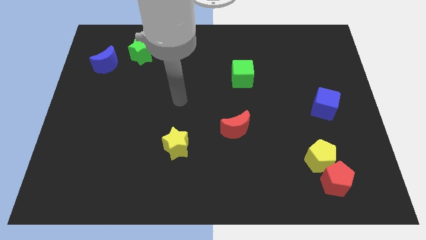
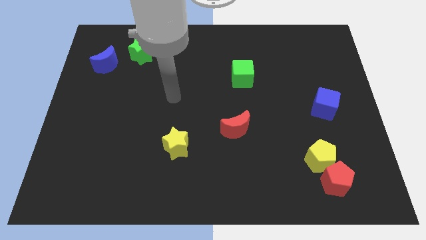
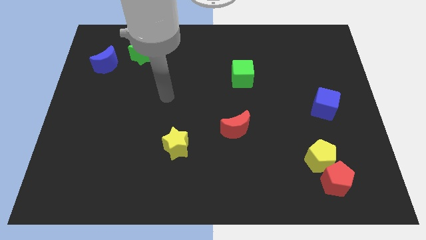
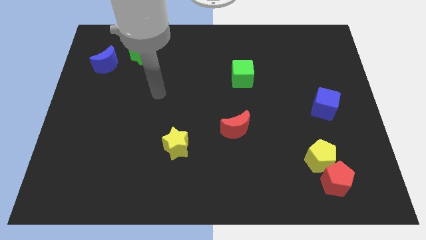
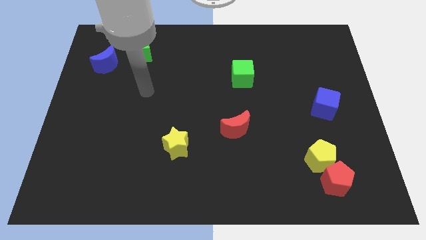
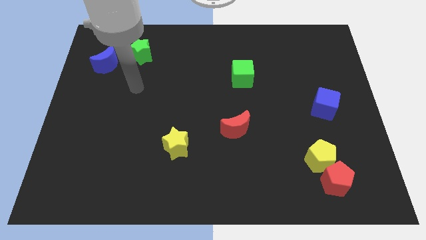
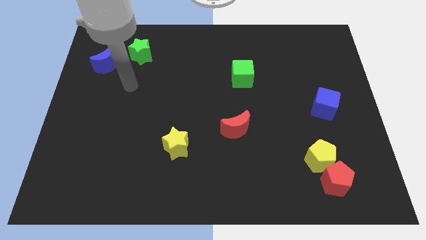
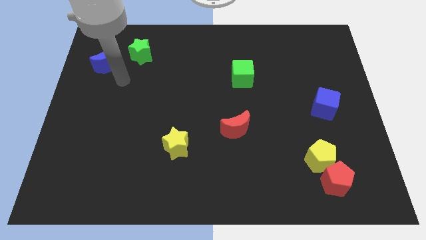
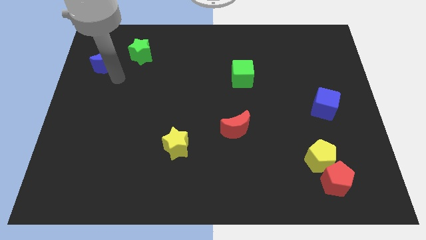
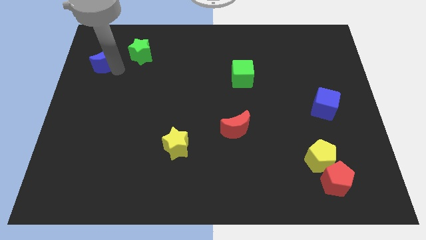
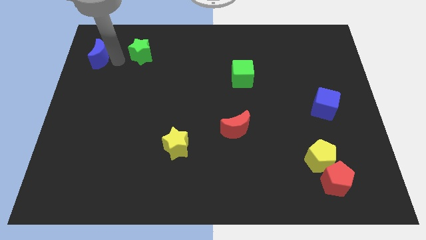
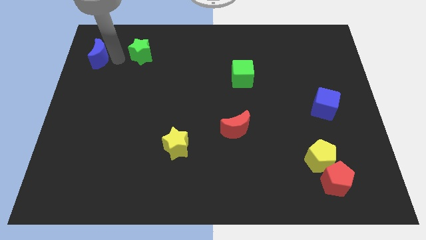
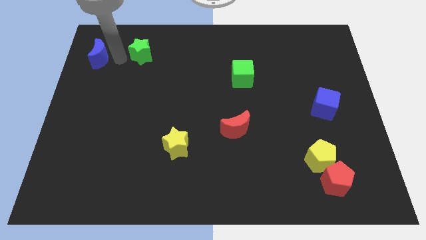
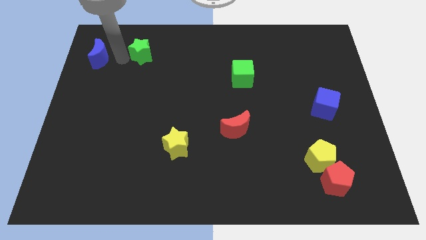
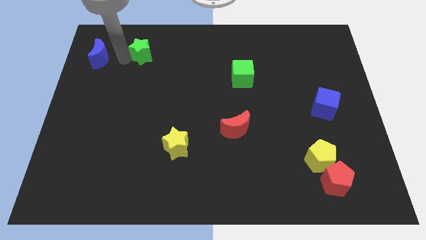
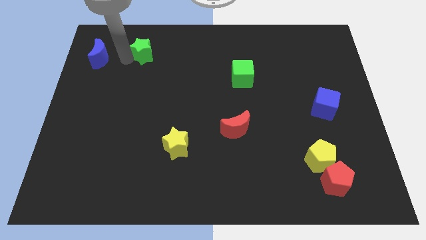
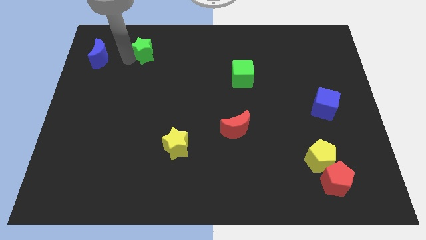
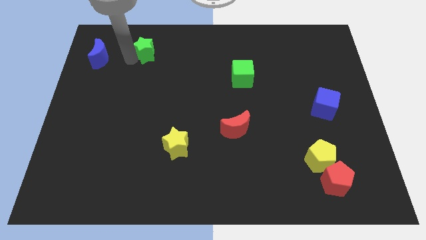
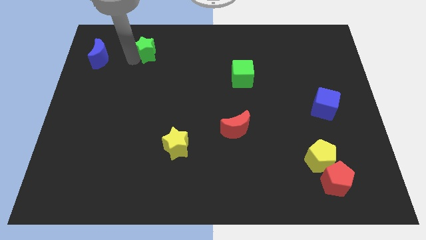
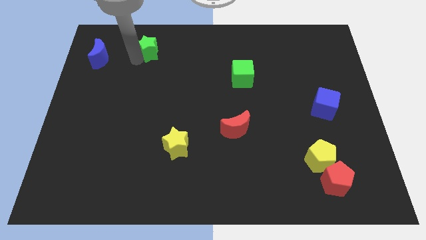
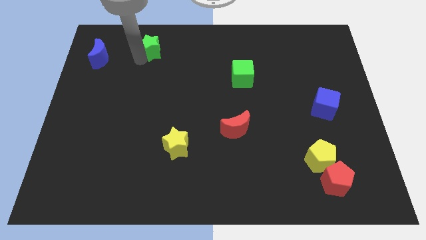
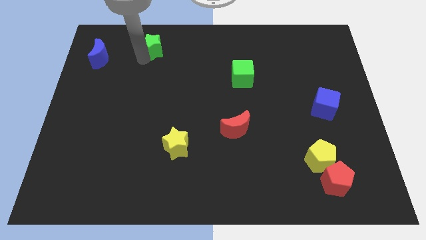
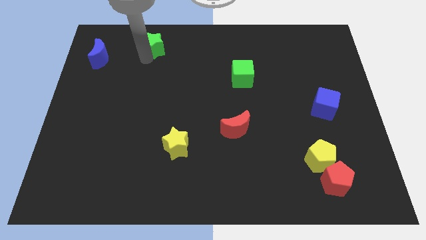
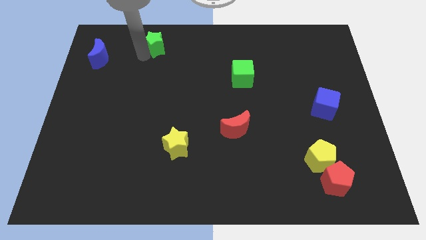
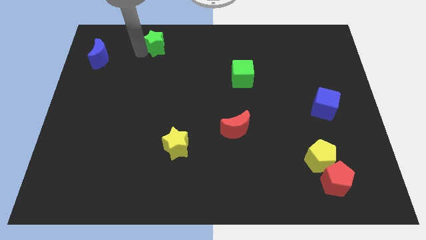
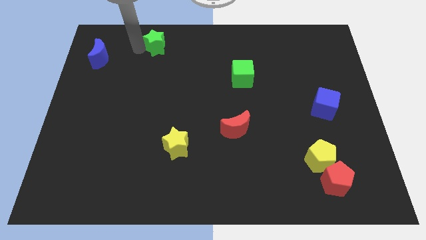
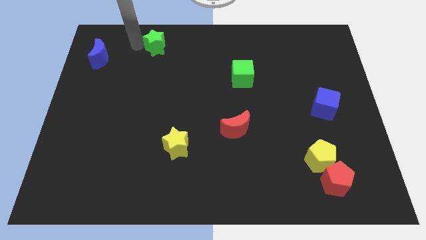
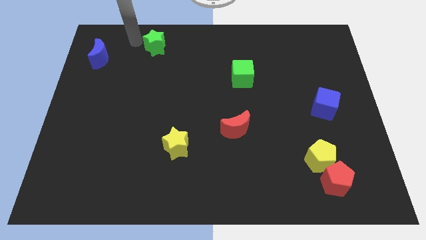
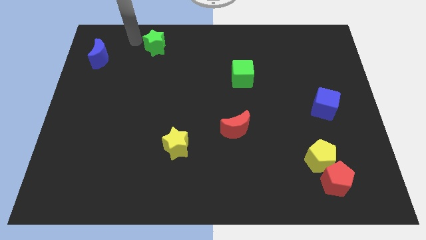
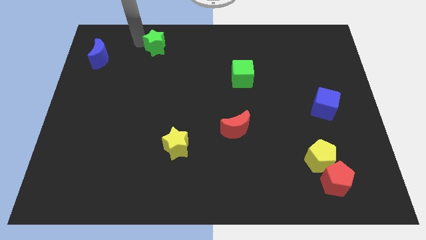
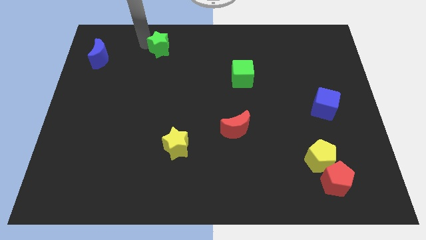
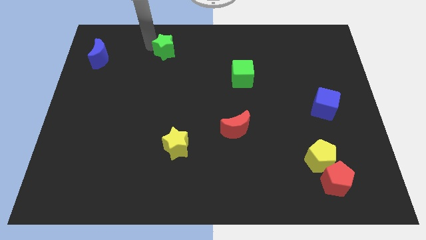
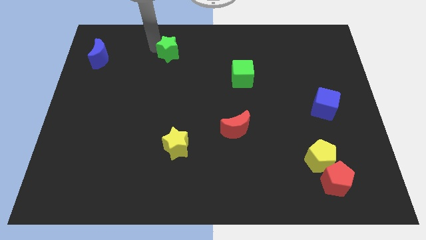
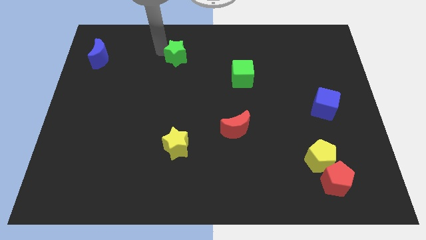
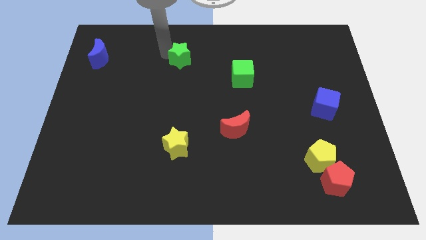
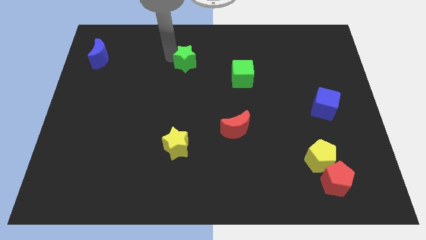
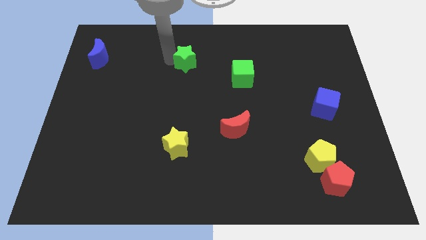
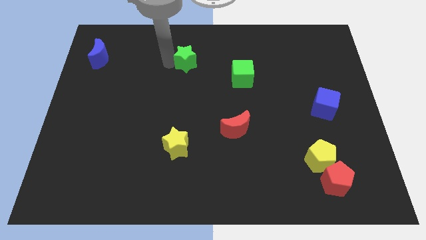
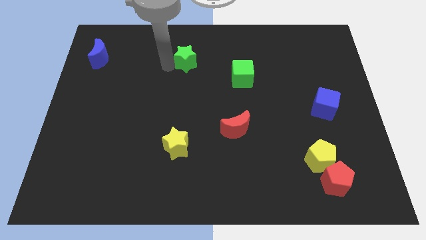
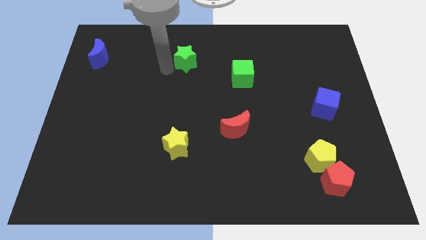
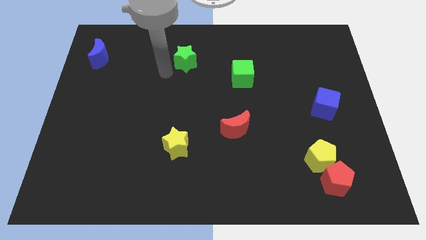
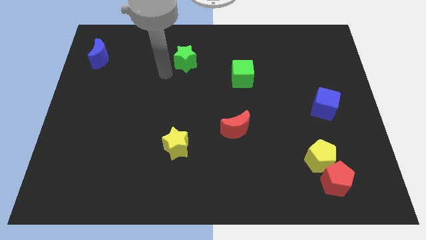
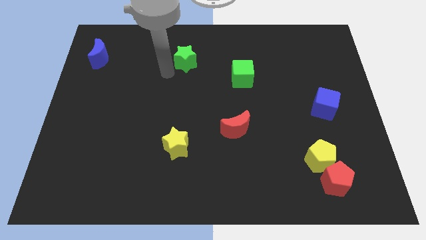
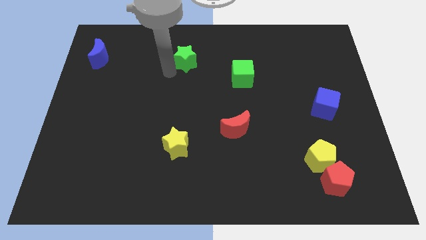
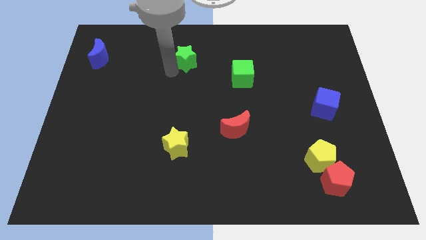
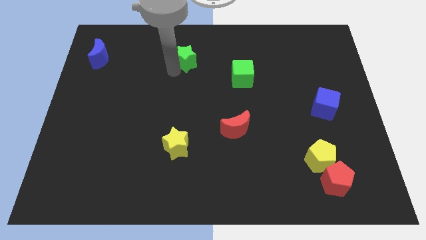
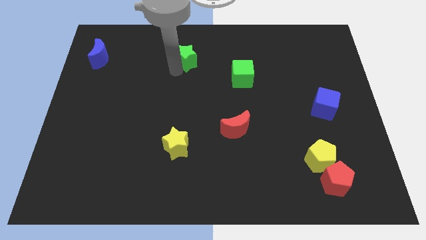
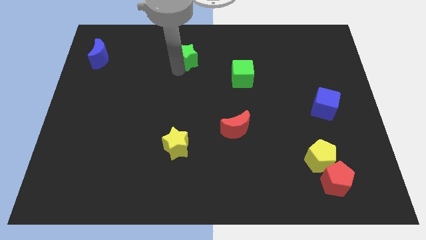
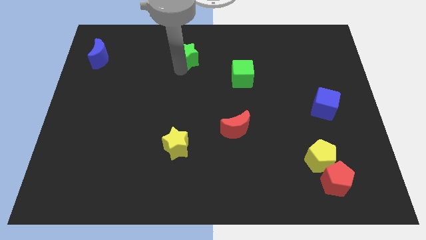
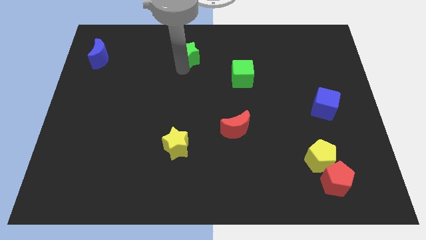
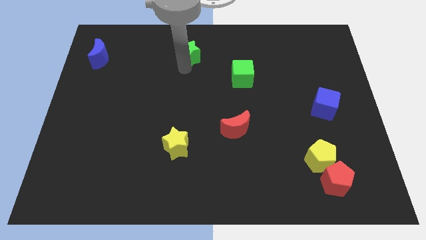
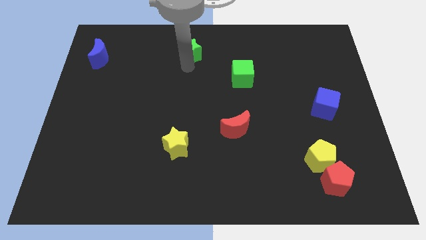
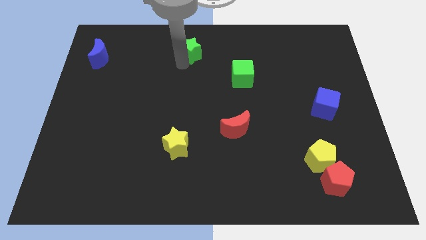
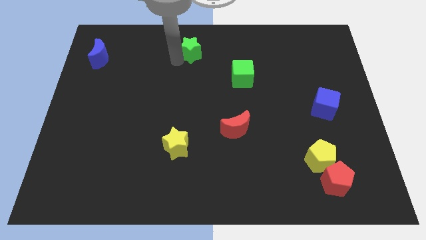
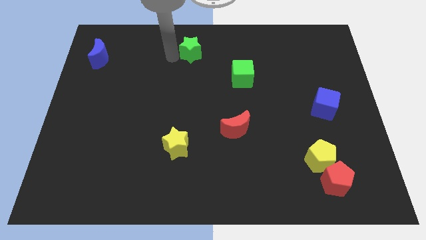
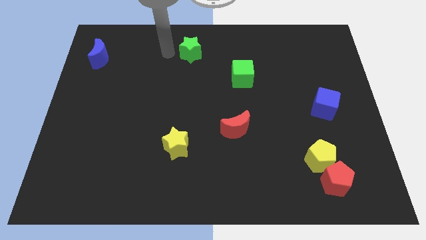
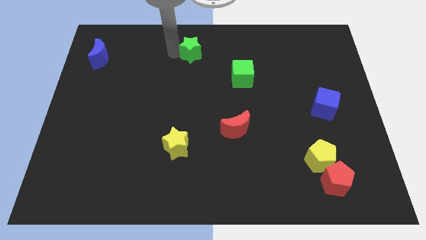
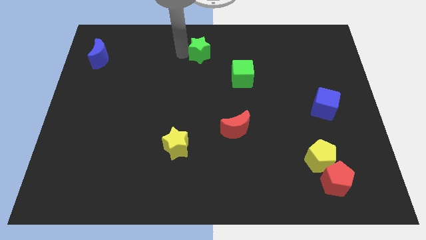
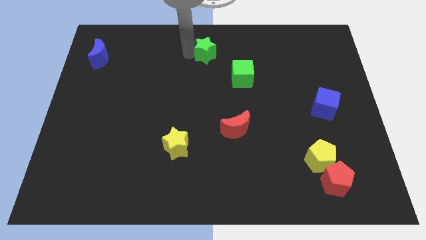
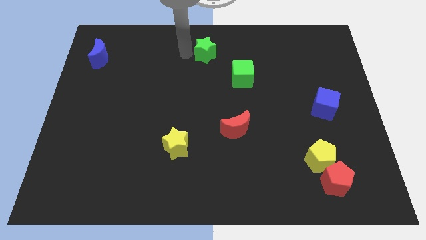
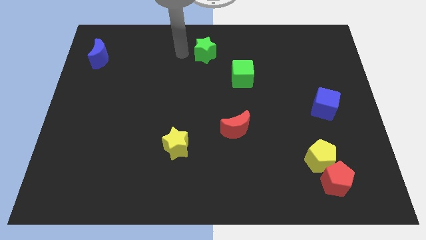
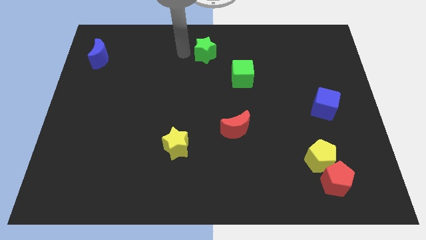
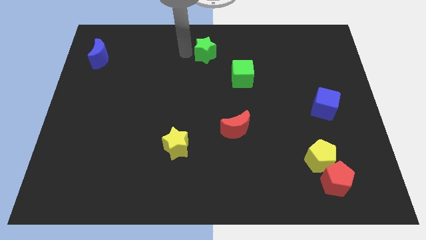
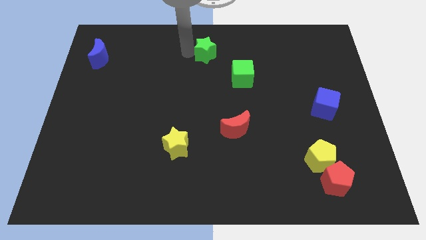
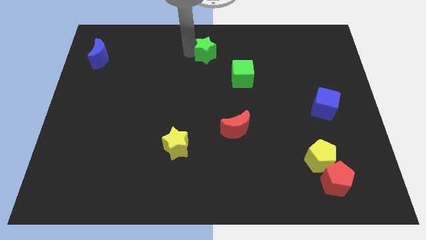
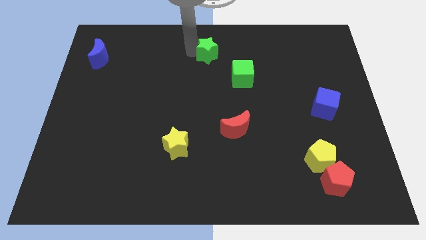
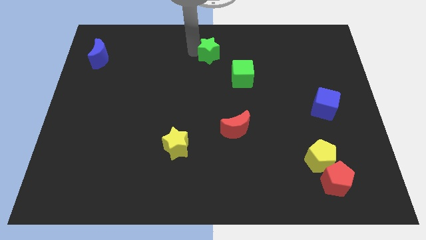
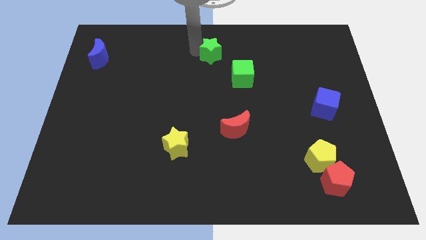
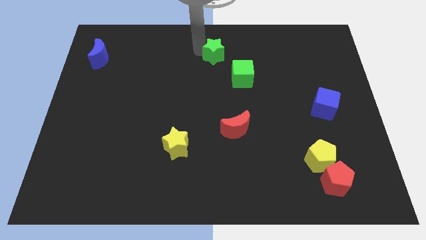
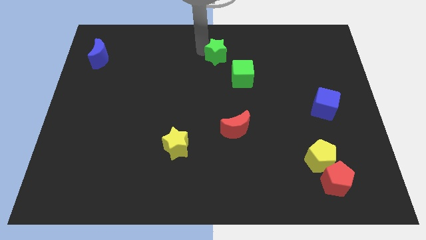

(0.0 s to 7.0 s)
move the green star right

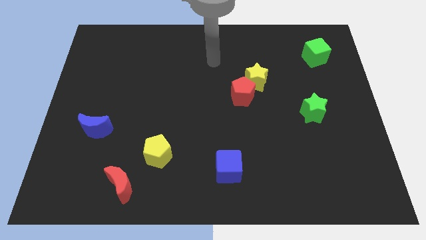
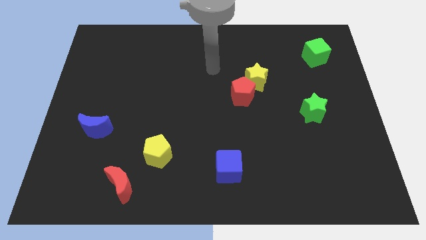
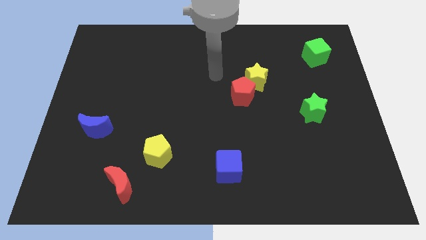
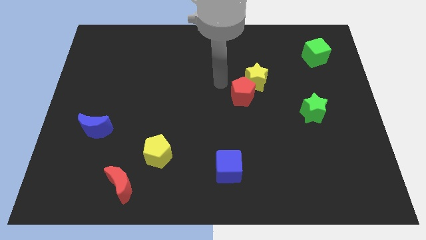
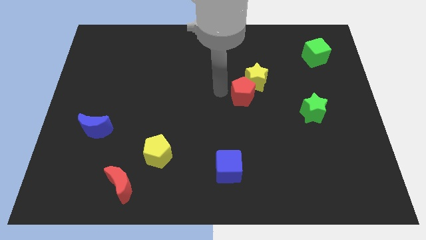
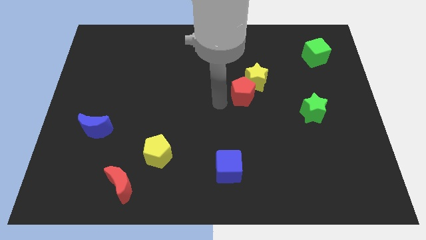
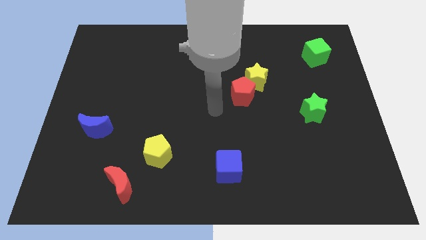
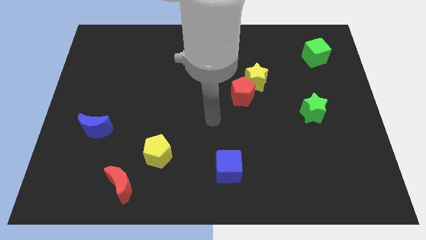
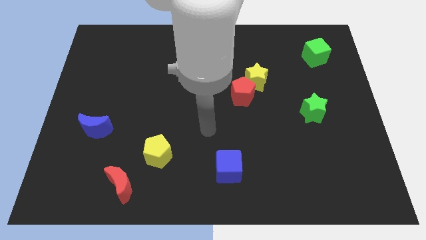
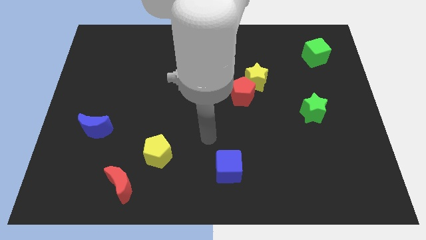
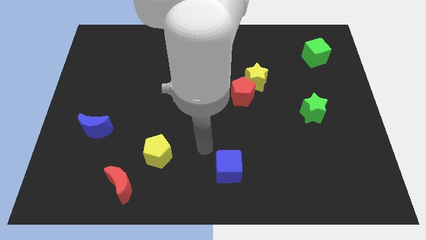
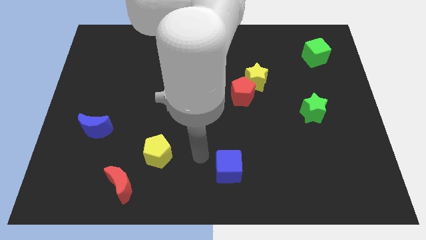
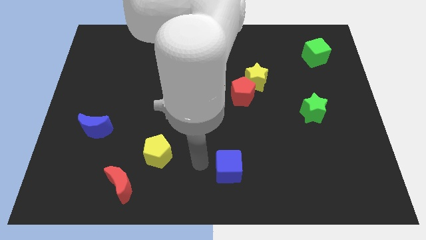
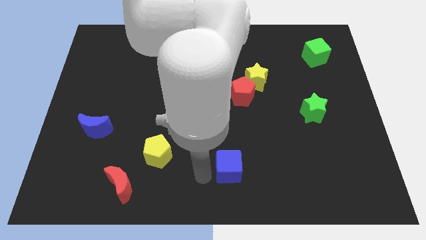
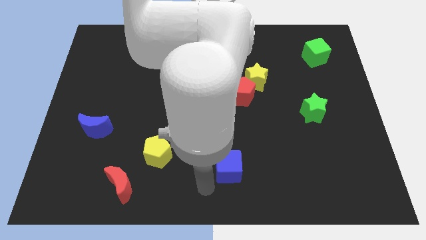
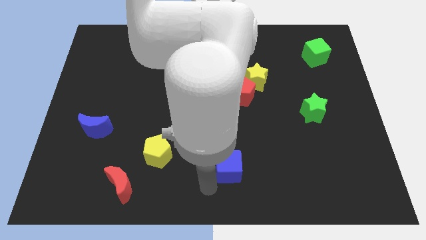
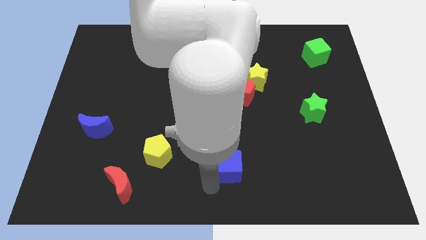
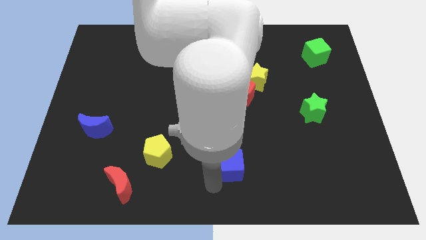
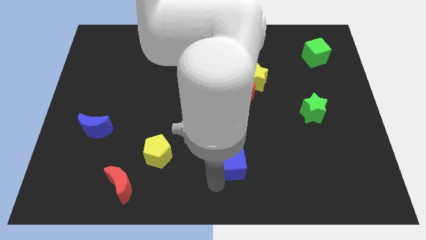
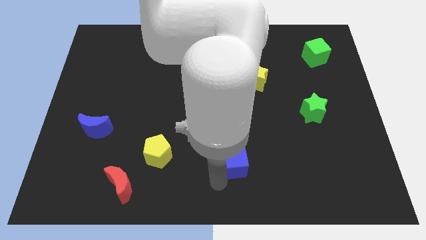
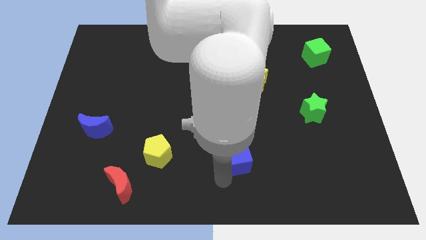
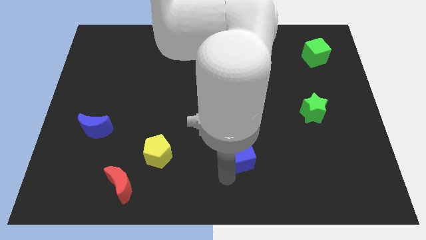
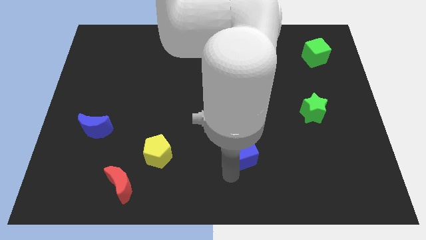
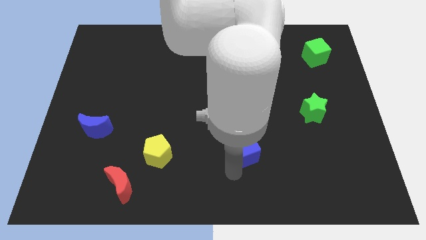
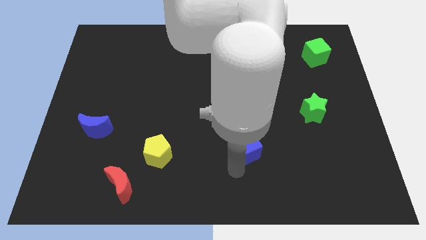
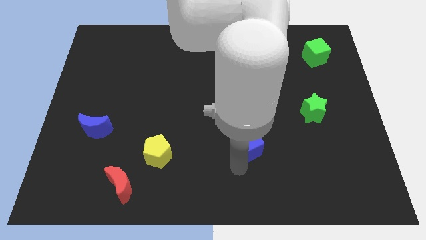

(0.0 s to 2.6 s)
move the blue cube up and right diagonally a bit
